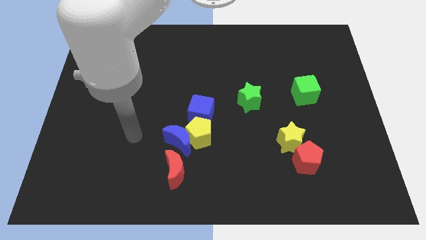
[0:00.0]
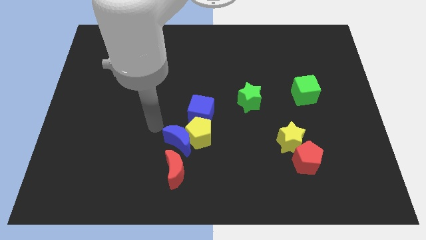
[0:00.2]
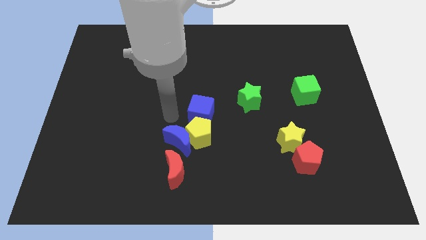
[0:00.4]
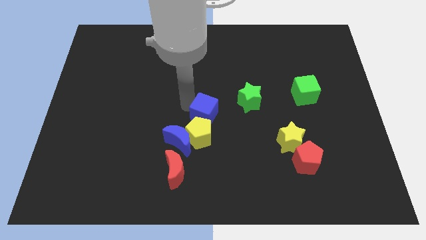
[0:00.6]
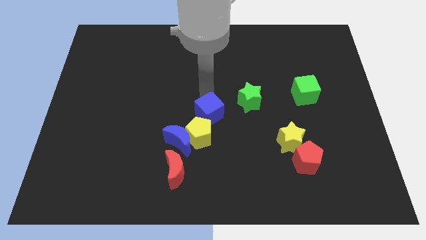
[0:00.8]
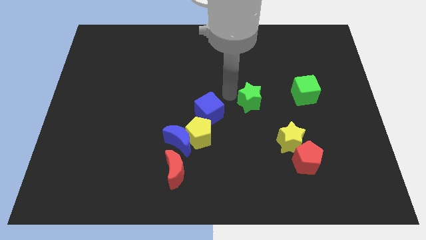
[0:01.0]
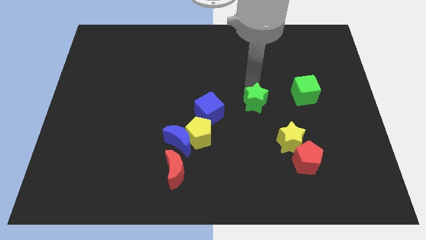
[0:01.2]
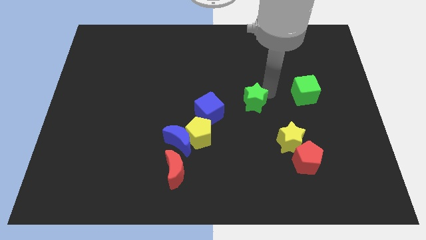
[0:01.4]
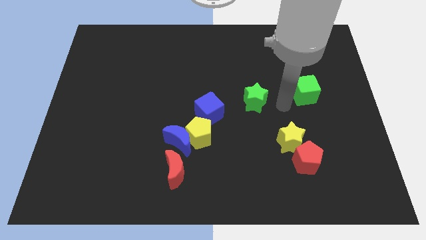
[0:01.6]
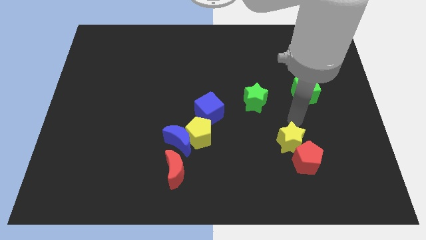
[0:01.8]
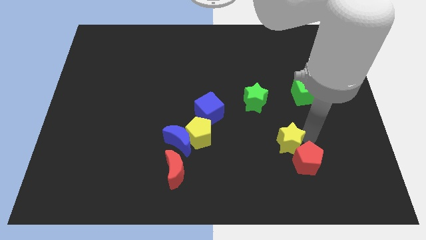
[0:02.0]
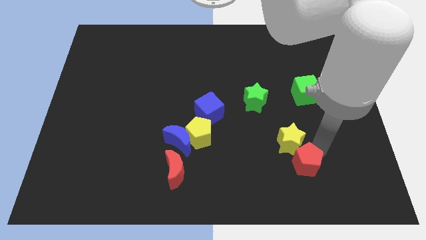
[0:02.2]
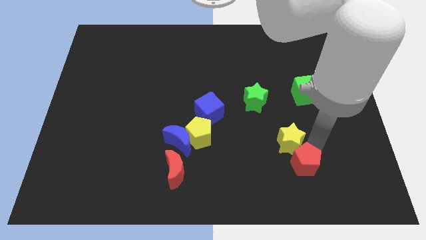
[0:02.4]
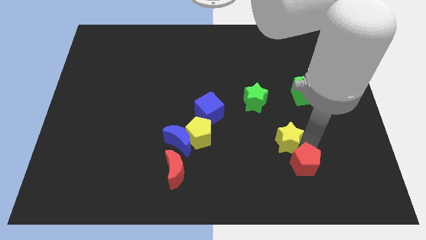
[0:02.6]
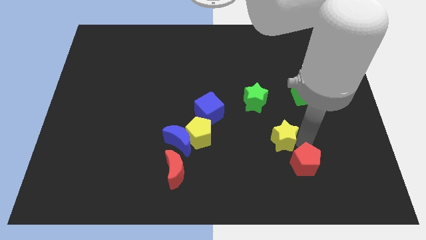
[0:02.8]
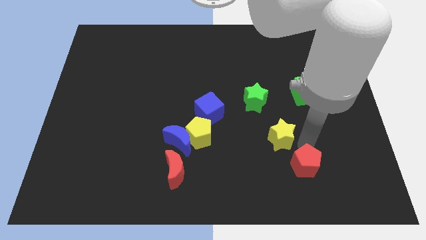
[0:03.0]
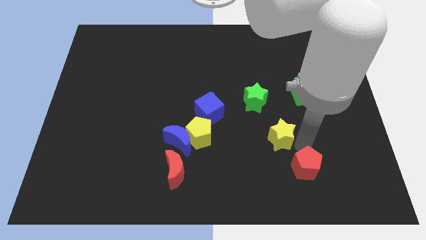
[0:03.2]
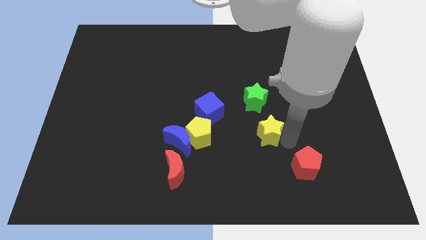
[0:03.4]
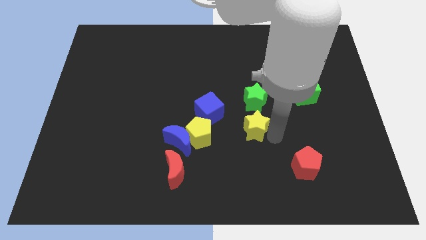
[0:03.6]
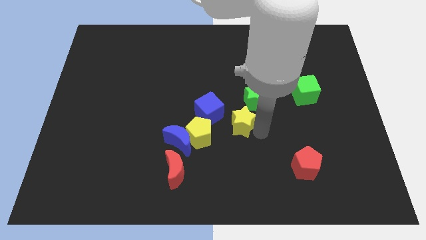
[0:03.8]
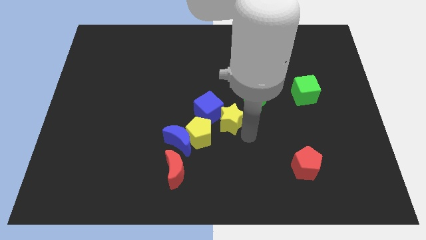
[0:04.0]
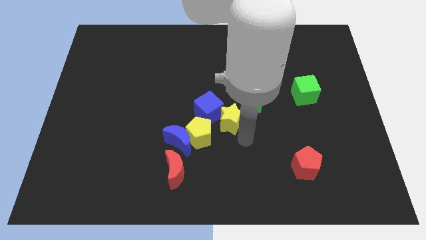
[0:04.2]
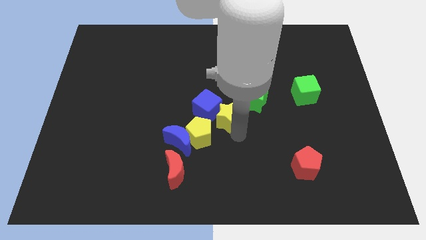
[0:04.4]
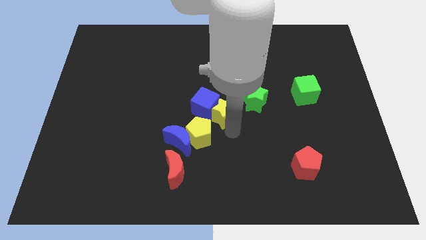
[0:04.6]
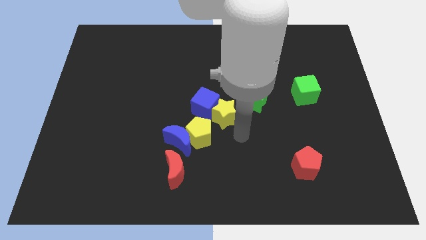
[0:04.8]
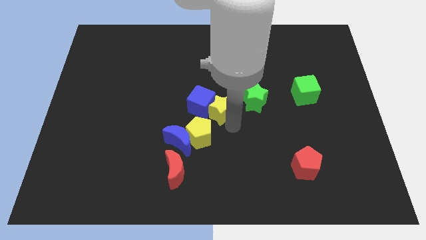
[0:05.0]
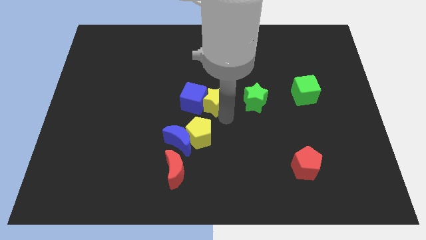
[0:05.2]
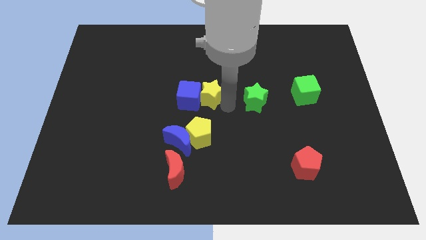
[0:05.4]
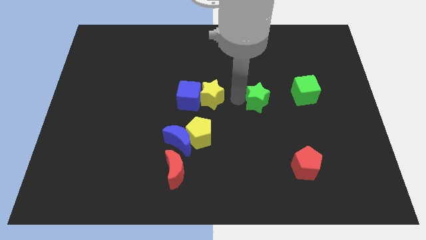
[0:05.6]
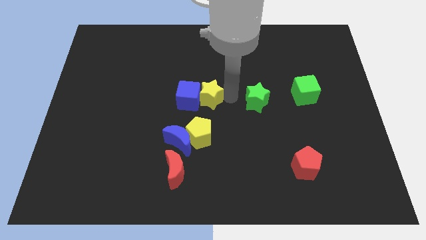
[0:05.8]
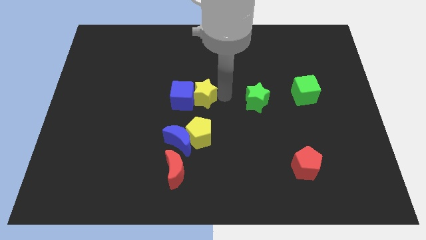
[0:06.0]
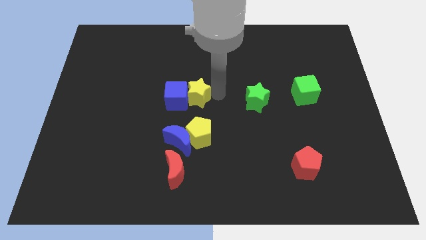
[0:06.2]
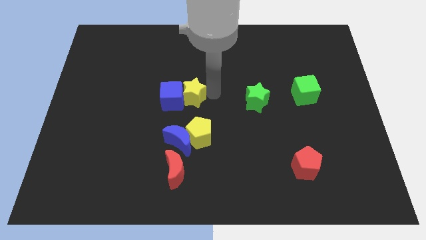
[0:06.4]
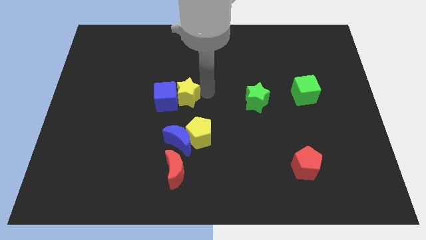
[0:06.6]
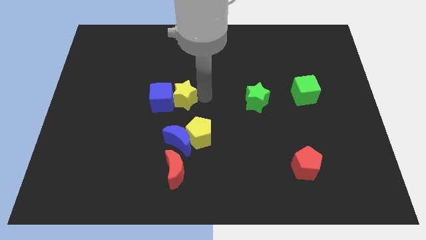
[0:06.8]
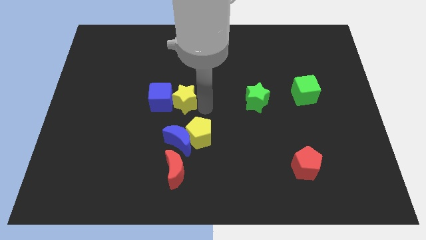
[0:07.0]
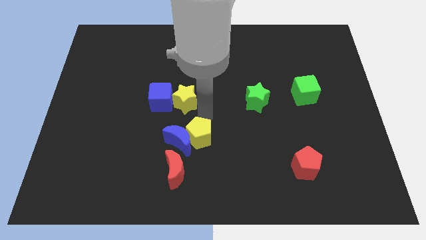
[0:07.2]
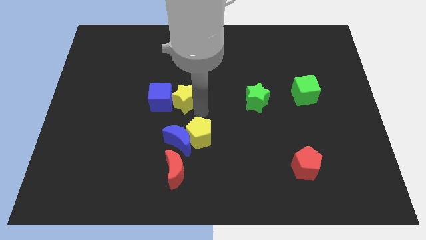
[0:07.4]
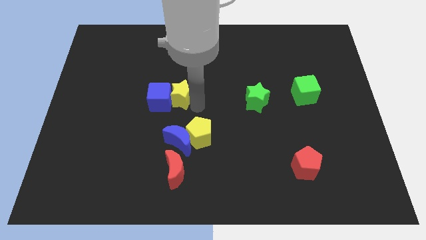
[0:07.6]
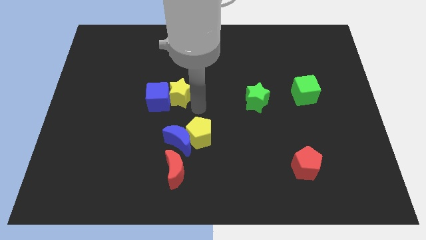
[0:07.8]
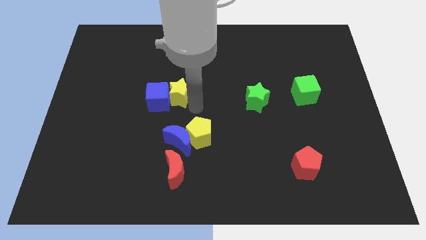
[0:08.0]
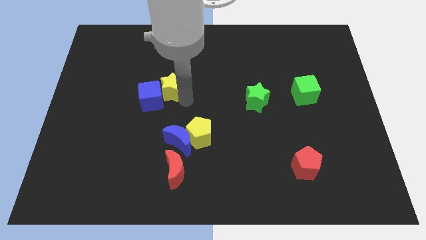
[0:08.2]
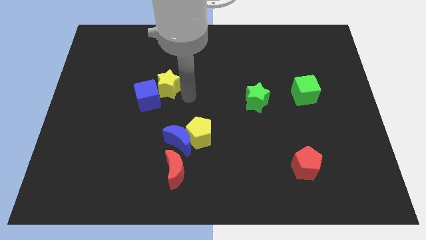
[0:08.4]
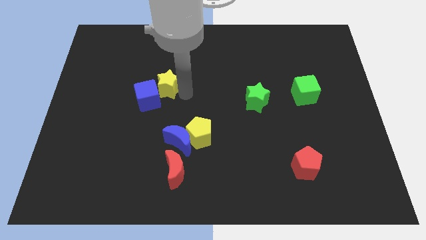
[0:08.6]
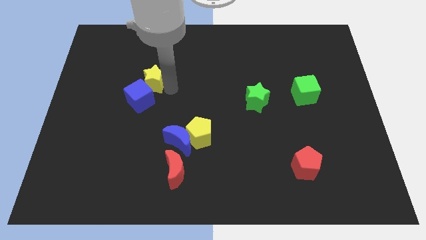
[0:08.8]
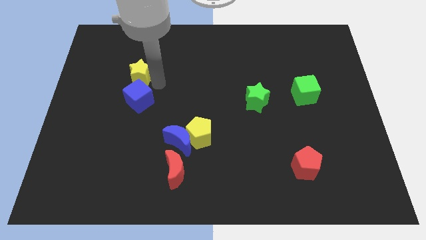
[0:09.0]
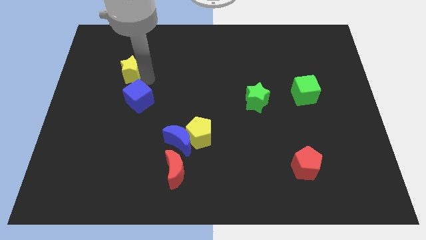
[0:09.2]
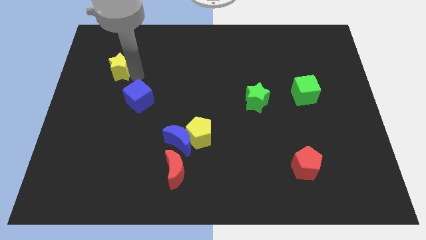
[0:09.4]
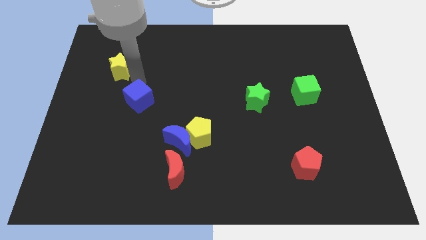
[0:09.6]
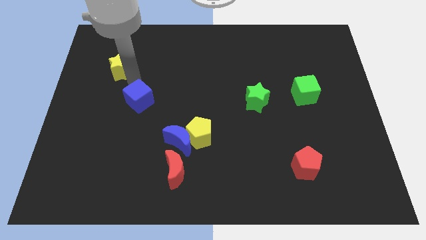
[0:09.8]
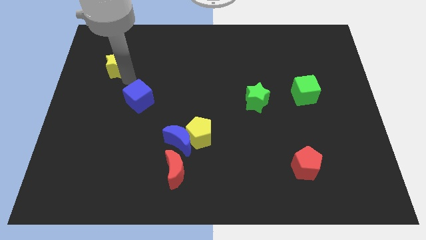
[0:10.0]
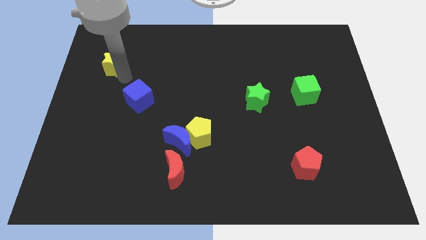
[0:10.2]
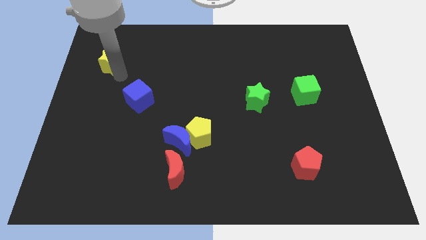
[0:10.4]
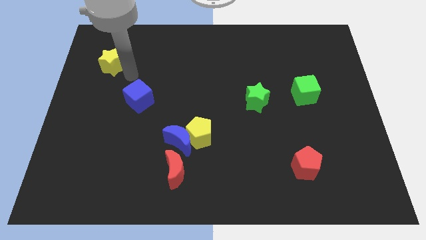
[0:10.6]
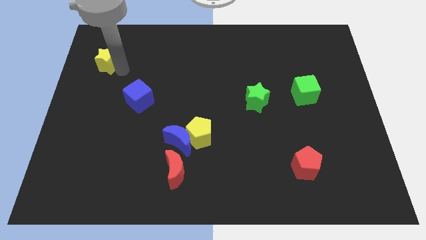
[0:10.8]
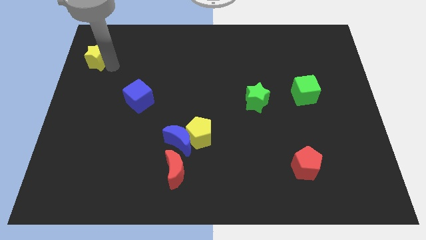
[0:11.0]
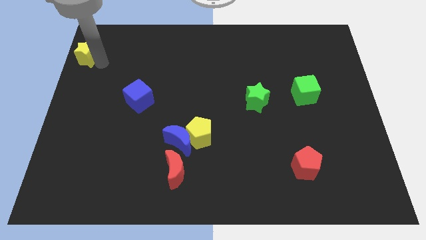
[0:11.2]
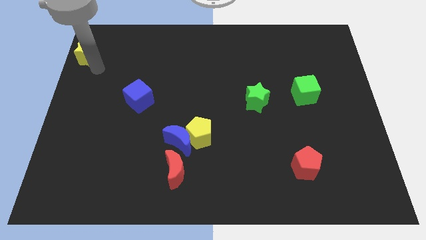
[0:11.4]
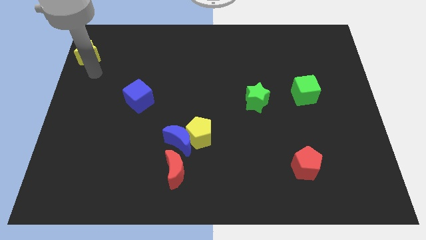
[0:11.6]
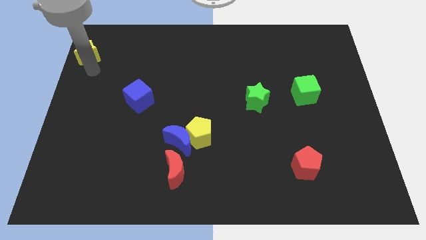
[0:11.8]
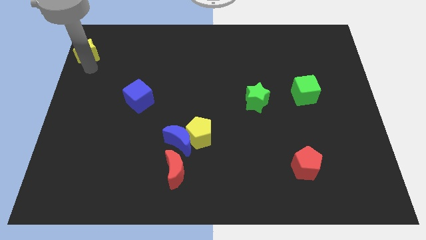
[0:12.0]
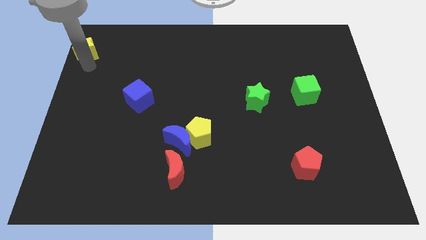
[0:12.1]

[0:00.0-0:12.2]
push the yellow star to the top left
